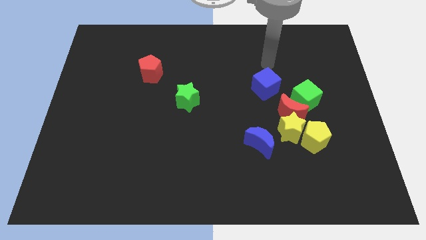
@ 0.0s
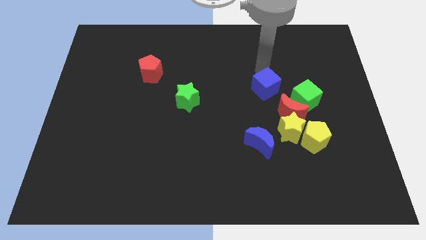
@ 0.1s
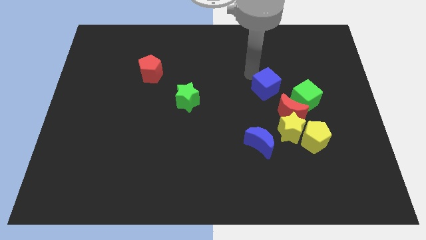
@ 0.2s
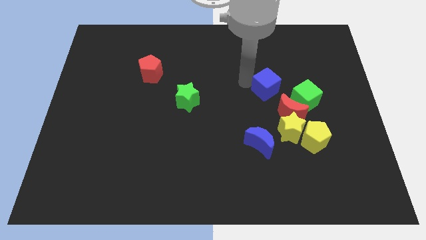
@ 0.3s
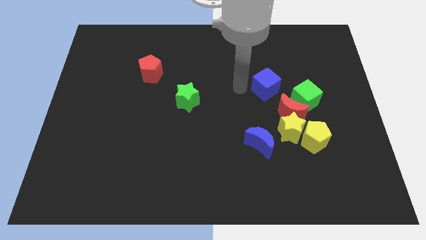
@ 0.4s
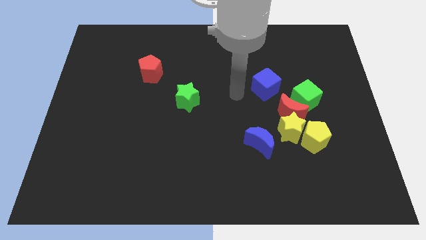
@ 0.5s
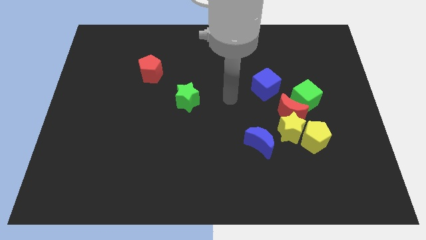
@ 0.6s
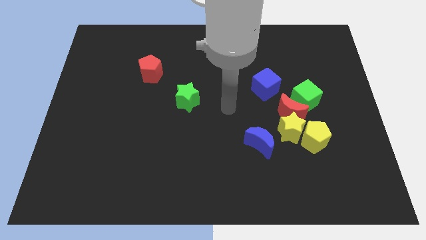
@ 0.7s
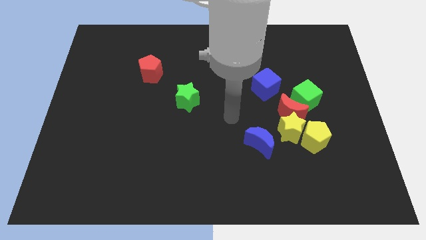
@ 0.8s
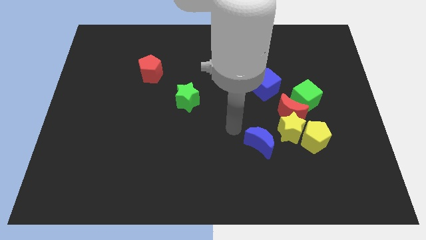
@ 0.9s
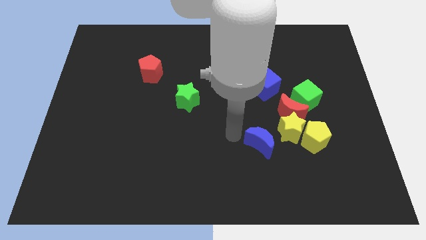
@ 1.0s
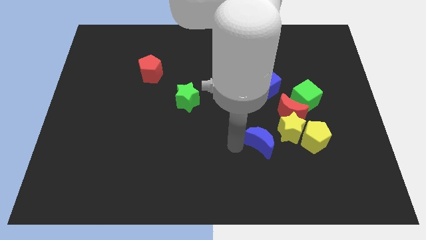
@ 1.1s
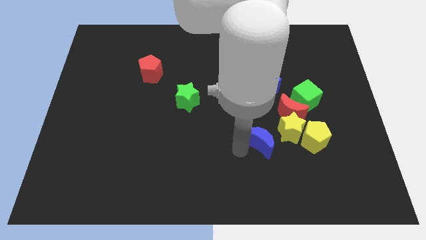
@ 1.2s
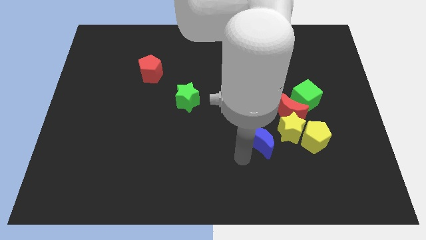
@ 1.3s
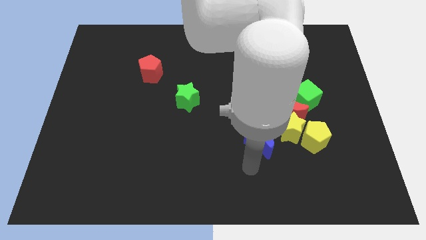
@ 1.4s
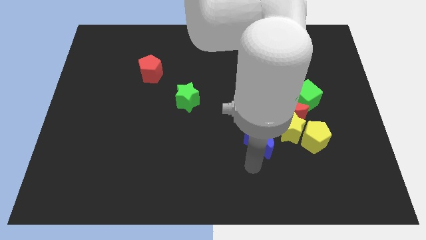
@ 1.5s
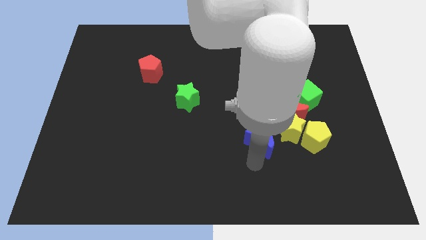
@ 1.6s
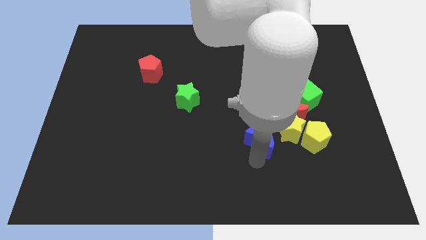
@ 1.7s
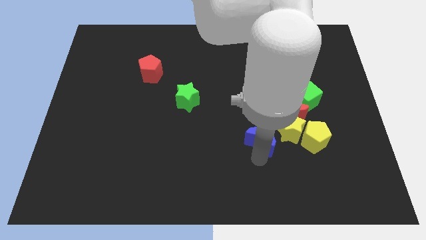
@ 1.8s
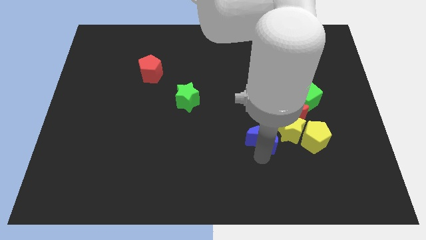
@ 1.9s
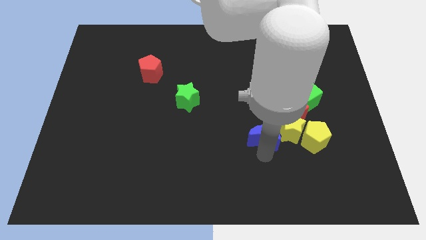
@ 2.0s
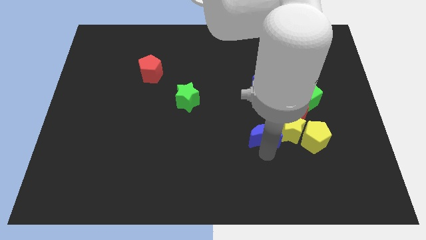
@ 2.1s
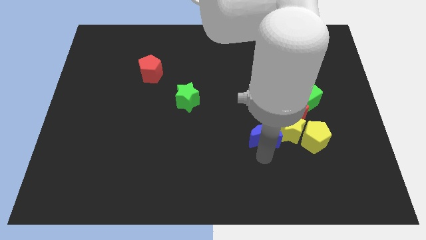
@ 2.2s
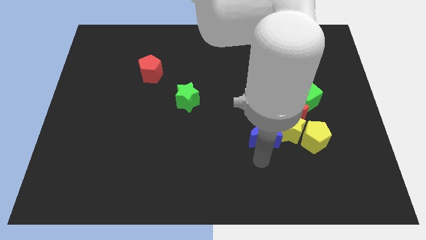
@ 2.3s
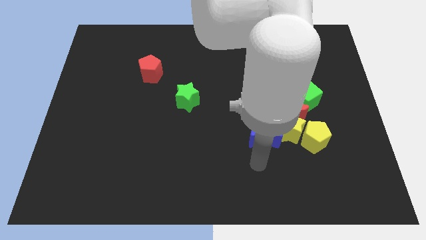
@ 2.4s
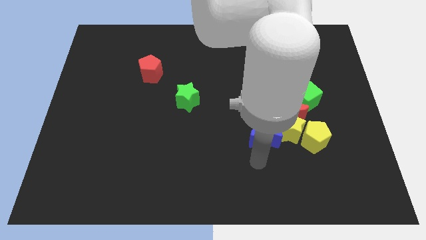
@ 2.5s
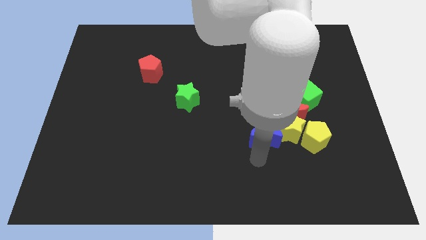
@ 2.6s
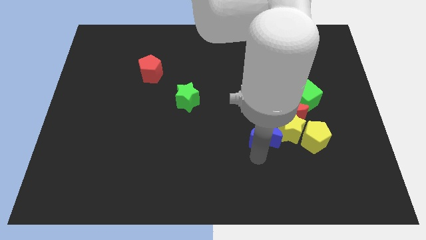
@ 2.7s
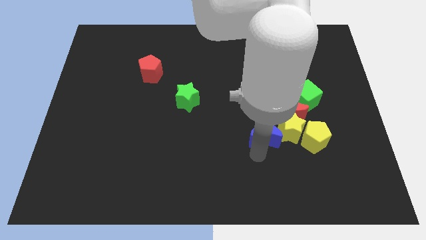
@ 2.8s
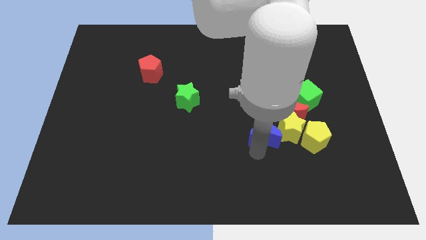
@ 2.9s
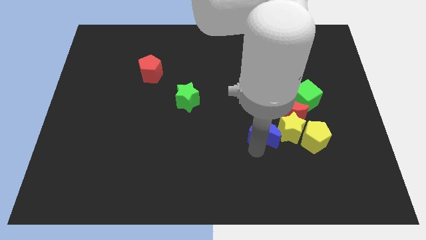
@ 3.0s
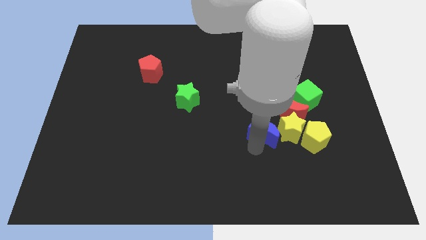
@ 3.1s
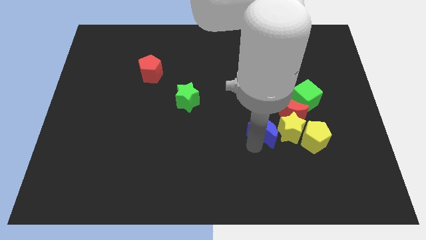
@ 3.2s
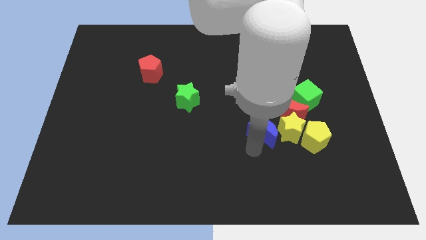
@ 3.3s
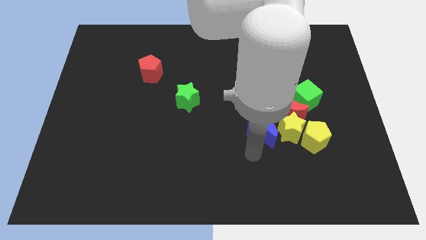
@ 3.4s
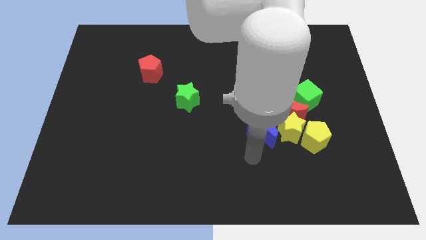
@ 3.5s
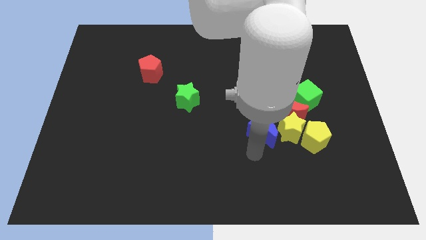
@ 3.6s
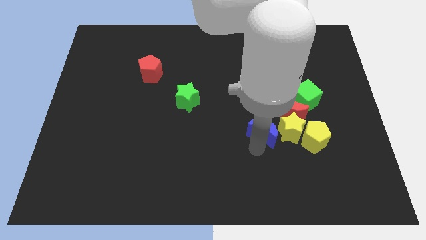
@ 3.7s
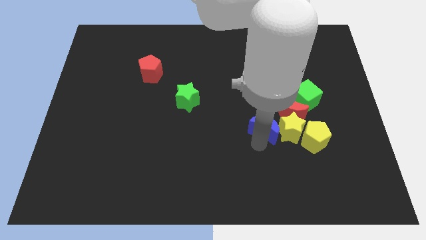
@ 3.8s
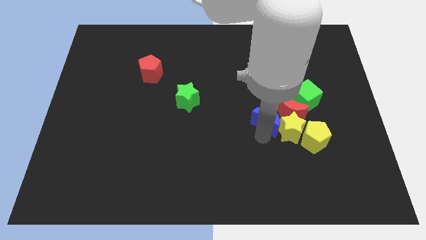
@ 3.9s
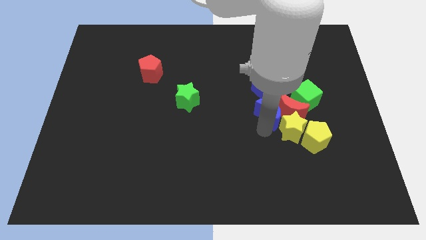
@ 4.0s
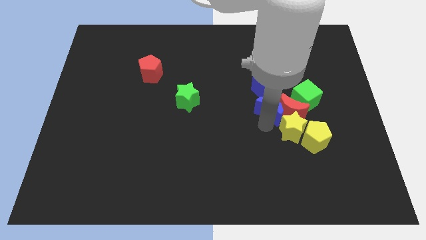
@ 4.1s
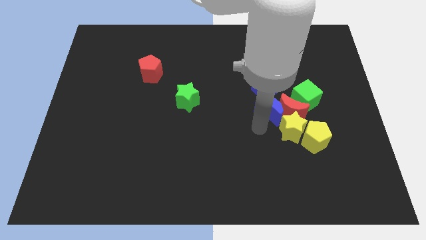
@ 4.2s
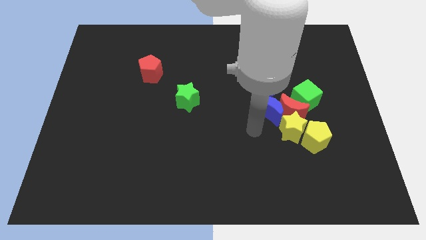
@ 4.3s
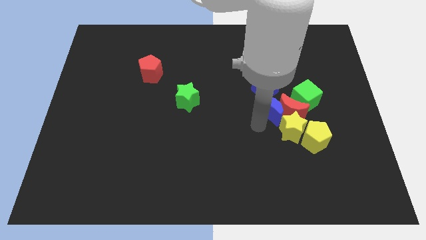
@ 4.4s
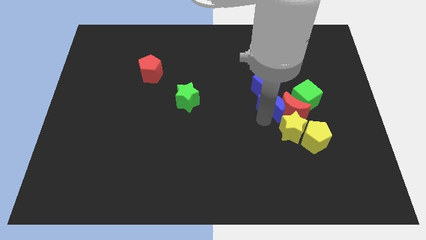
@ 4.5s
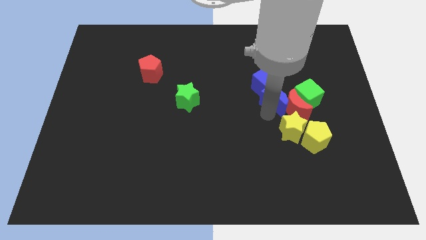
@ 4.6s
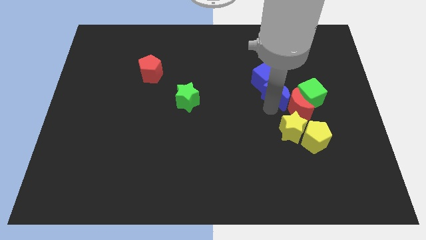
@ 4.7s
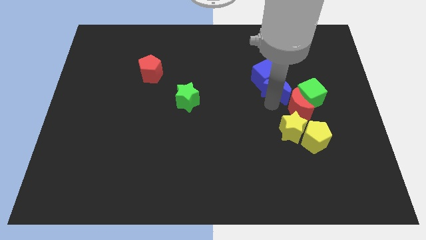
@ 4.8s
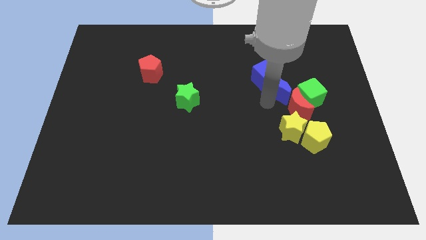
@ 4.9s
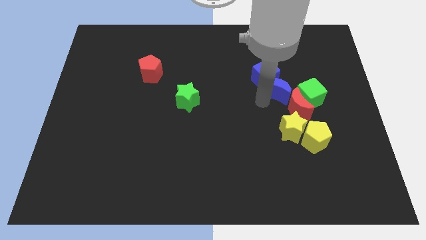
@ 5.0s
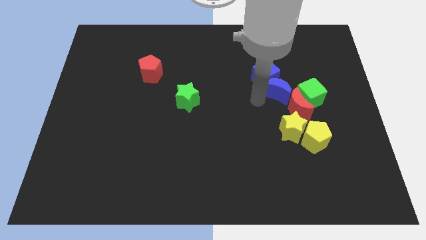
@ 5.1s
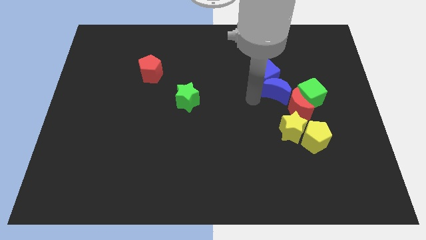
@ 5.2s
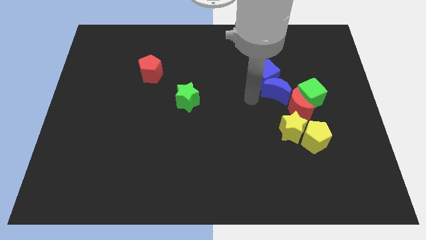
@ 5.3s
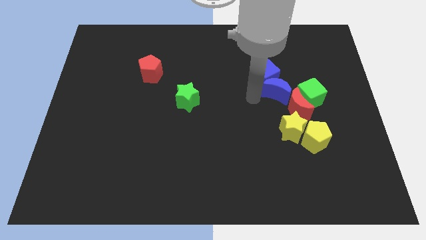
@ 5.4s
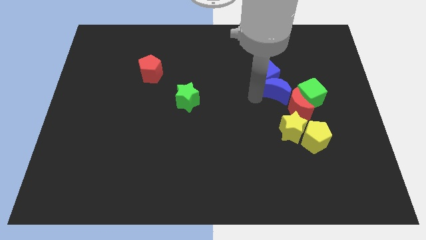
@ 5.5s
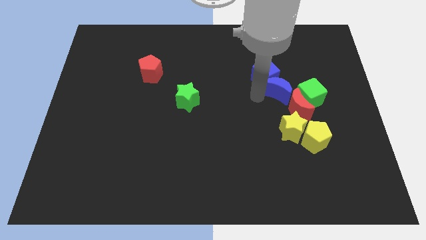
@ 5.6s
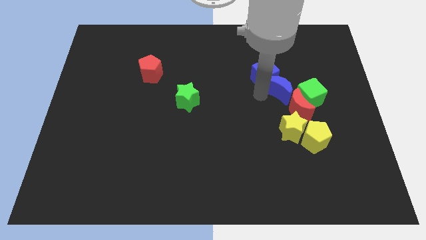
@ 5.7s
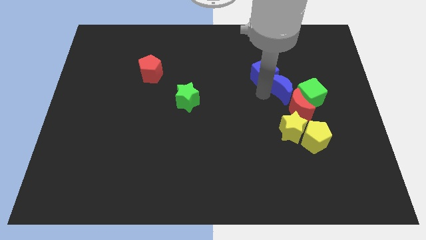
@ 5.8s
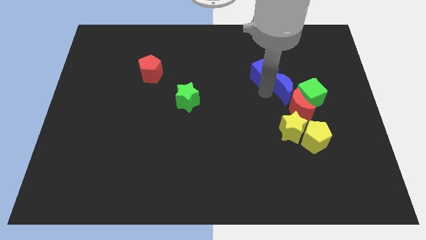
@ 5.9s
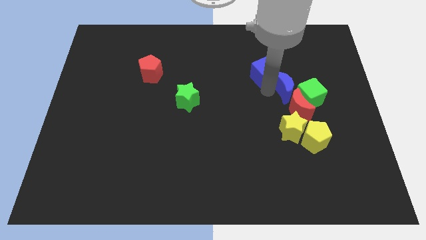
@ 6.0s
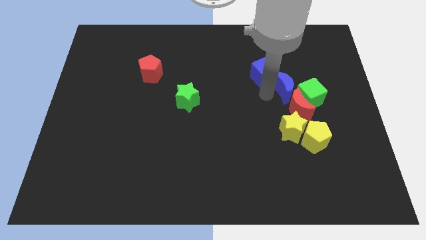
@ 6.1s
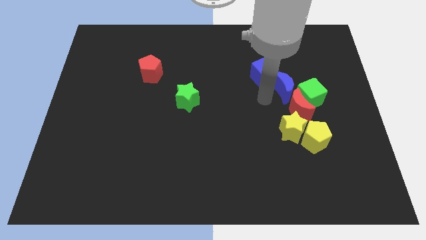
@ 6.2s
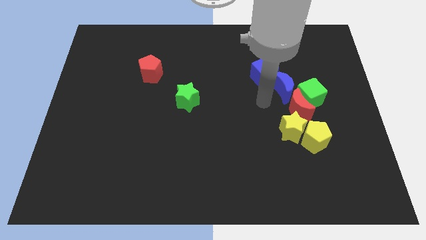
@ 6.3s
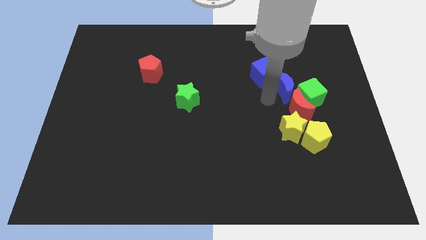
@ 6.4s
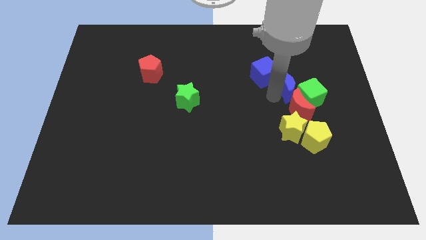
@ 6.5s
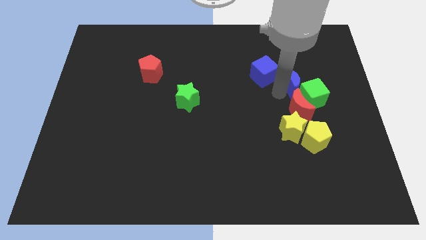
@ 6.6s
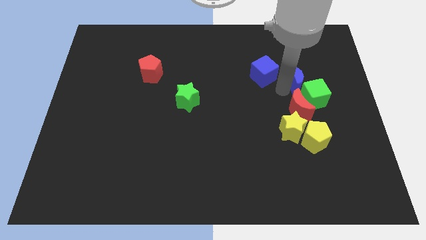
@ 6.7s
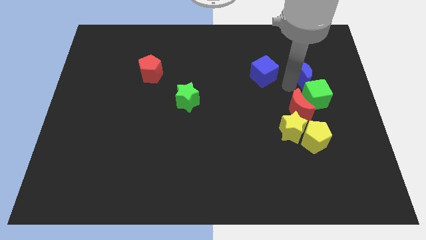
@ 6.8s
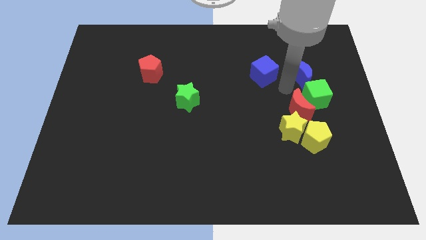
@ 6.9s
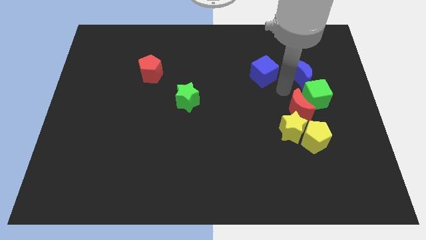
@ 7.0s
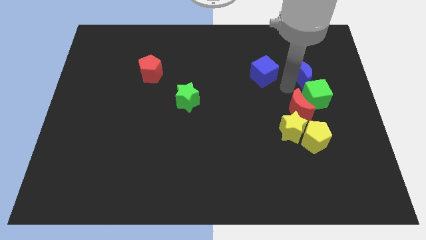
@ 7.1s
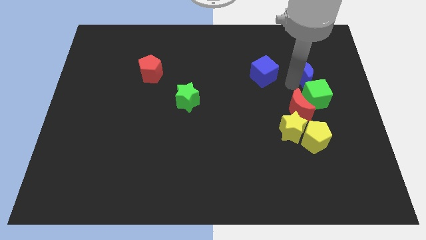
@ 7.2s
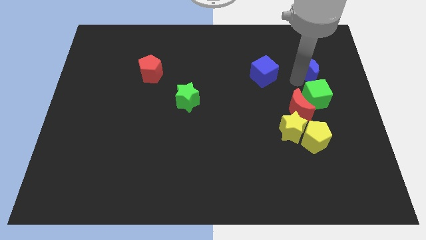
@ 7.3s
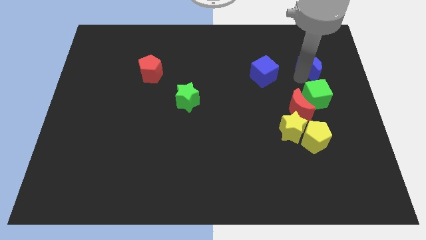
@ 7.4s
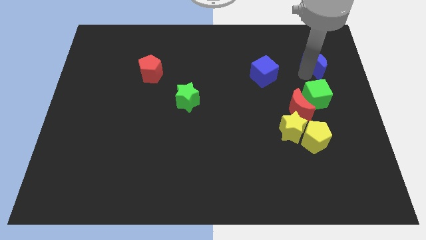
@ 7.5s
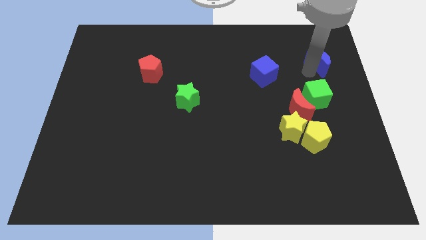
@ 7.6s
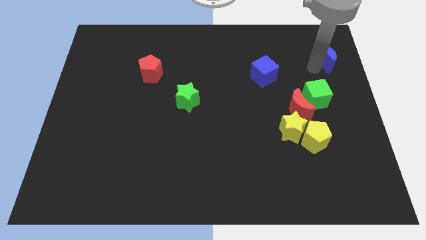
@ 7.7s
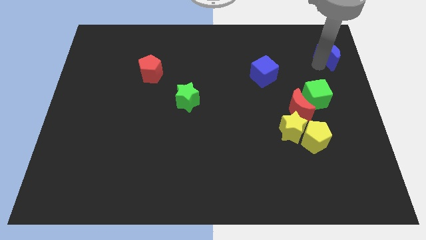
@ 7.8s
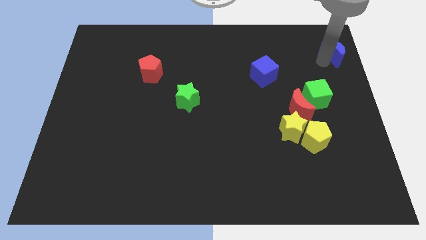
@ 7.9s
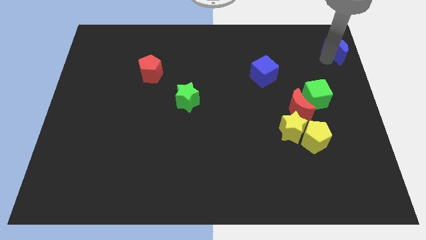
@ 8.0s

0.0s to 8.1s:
put the blue moon to the top right of the board
